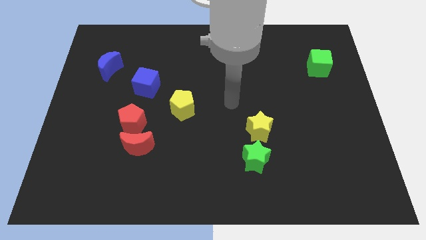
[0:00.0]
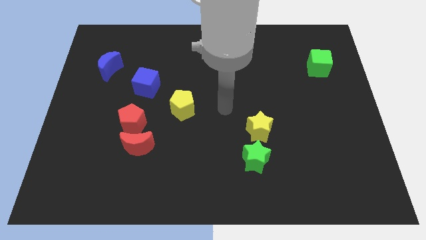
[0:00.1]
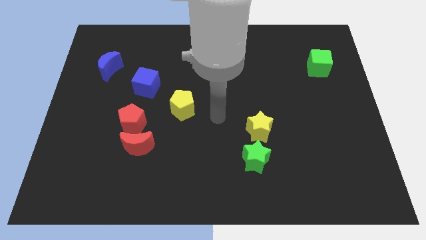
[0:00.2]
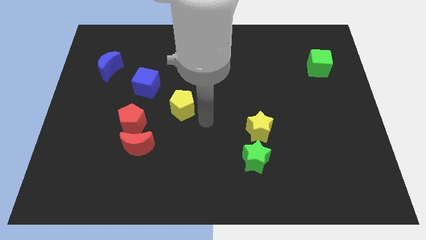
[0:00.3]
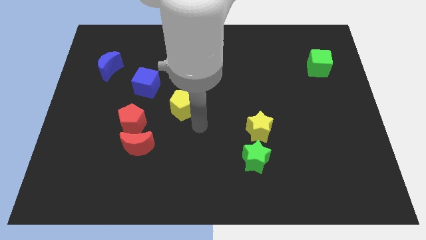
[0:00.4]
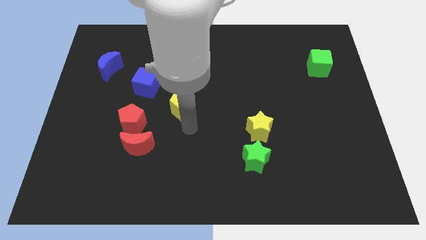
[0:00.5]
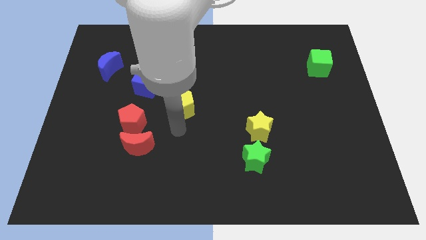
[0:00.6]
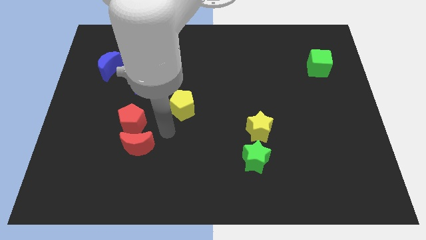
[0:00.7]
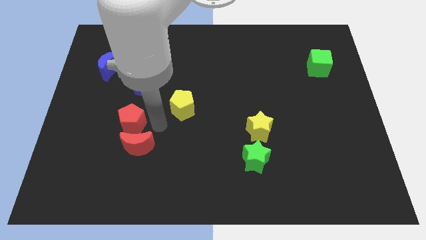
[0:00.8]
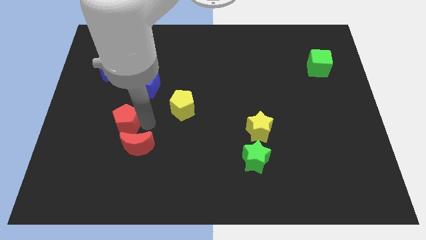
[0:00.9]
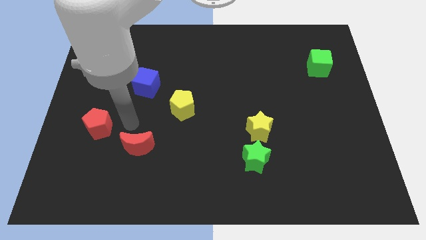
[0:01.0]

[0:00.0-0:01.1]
pull the red moon apart from the red pentagon

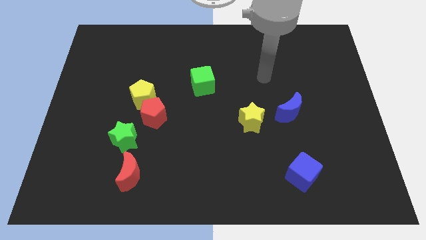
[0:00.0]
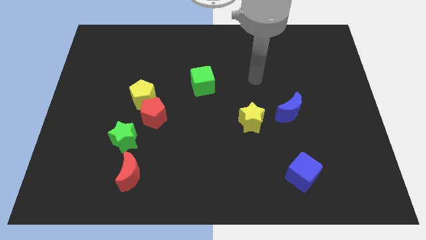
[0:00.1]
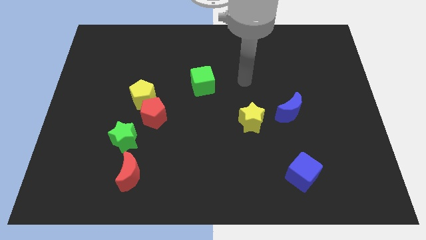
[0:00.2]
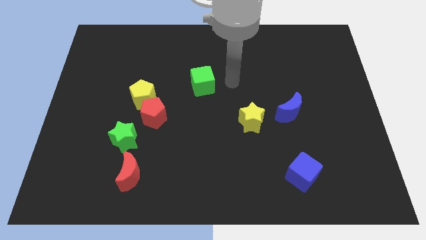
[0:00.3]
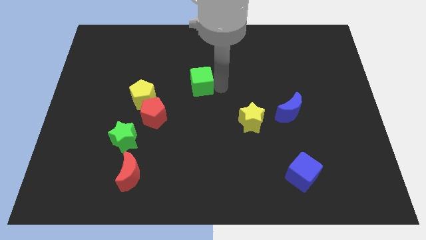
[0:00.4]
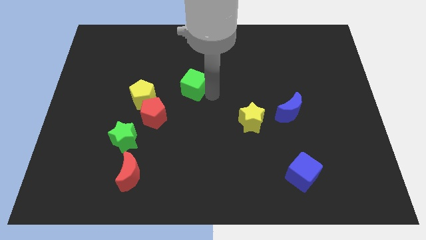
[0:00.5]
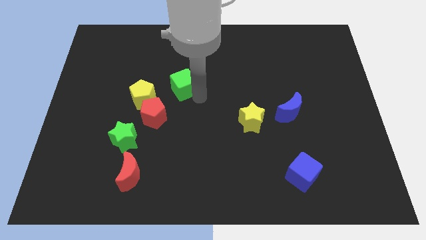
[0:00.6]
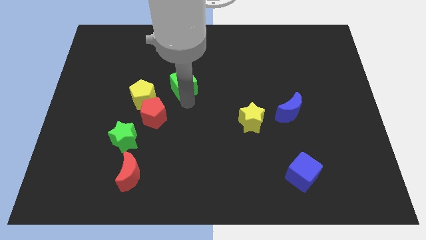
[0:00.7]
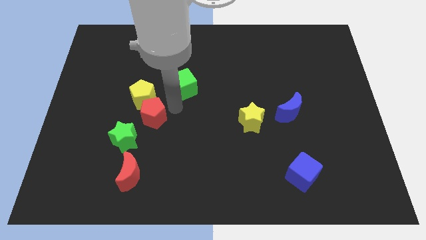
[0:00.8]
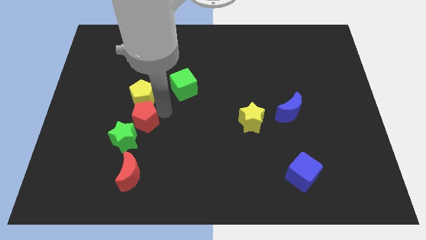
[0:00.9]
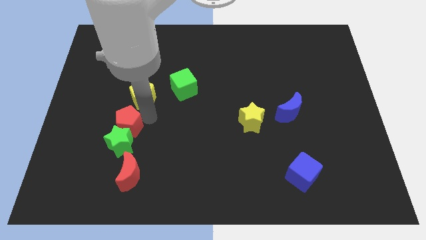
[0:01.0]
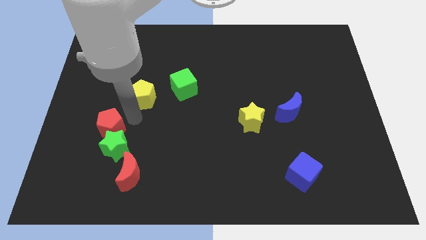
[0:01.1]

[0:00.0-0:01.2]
move the yellow pentagon away from the red pentagon

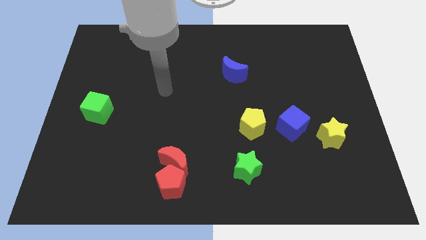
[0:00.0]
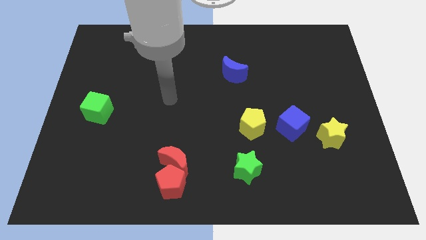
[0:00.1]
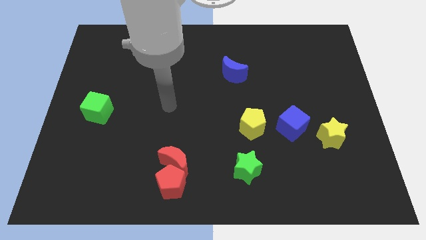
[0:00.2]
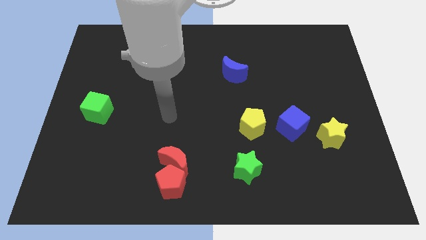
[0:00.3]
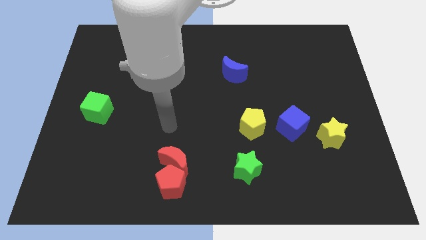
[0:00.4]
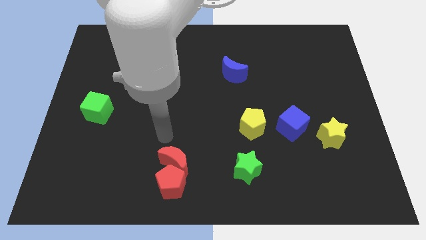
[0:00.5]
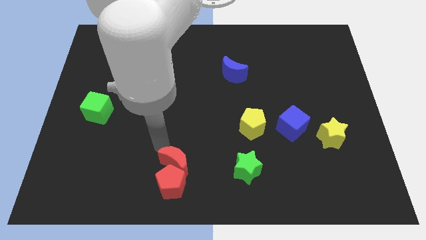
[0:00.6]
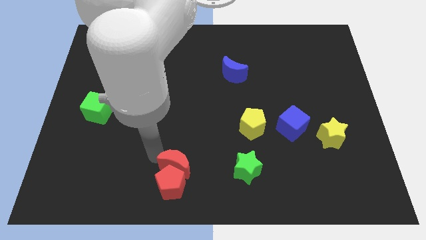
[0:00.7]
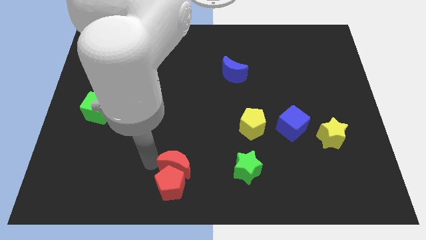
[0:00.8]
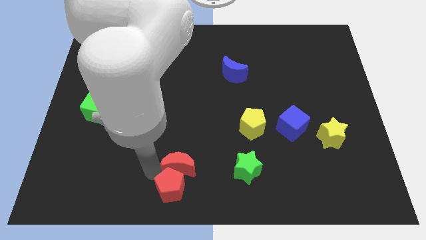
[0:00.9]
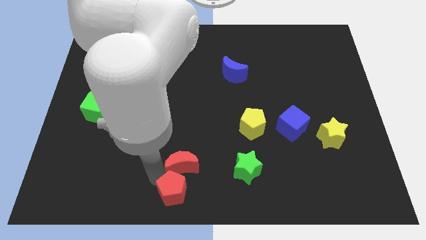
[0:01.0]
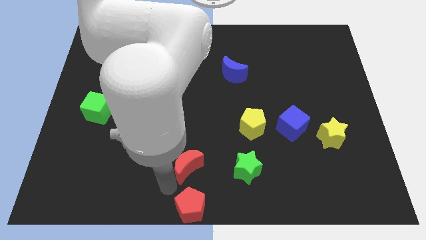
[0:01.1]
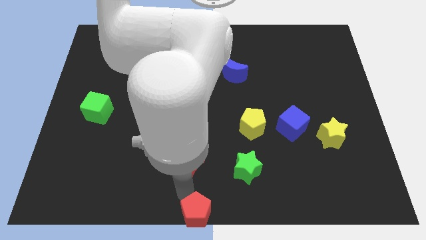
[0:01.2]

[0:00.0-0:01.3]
separate the red moon from the red pentagon

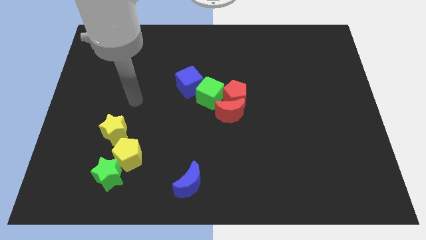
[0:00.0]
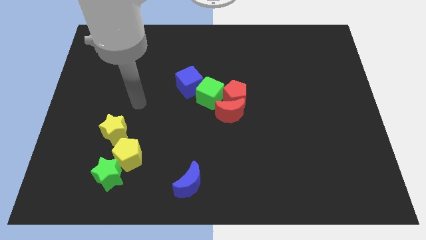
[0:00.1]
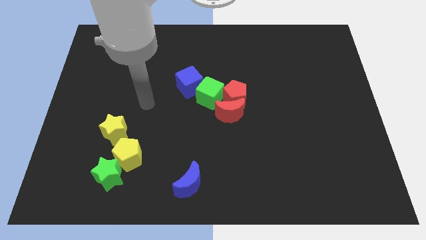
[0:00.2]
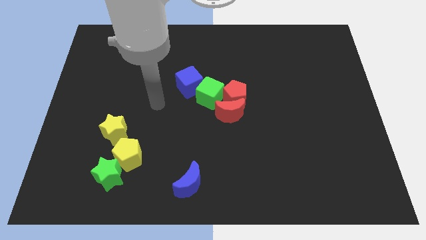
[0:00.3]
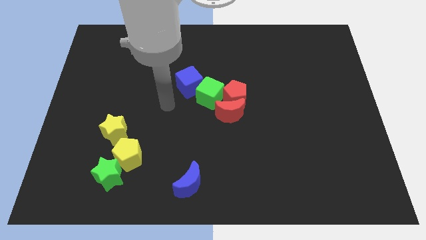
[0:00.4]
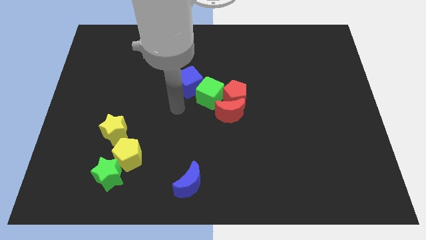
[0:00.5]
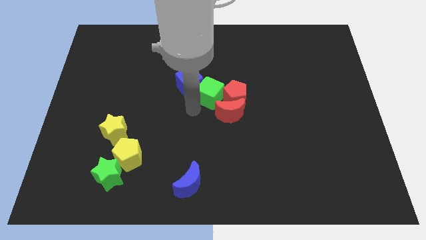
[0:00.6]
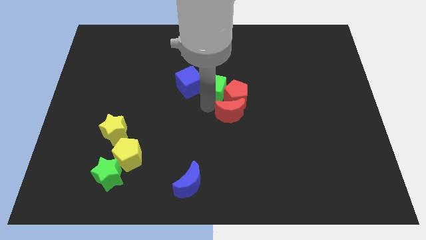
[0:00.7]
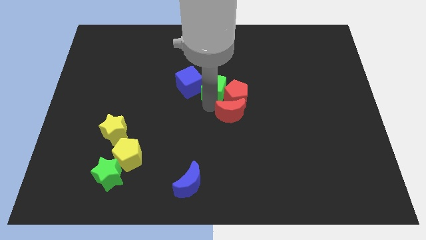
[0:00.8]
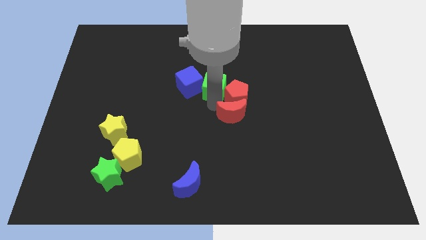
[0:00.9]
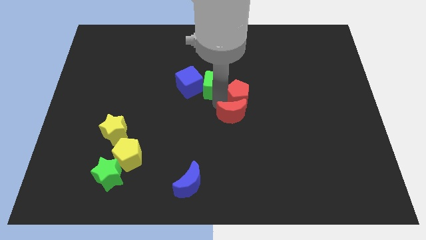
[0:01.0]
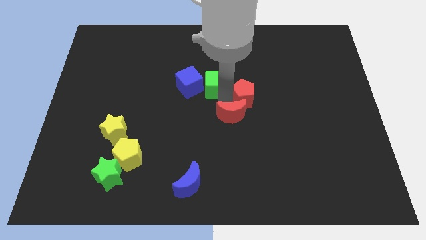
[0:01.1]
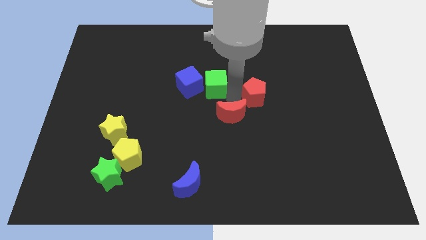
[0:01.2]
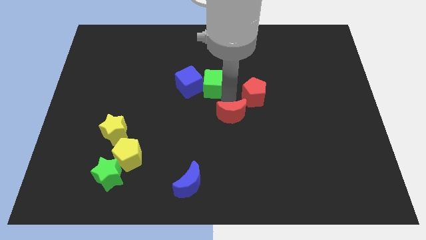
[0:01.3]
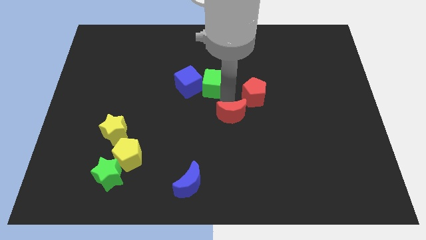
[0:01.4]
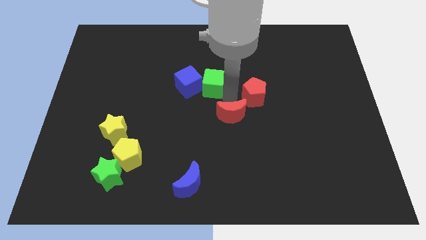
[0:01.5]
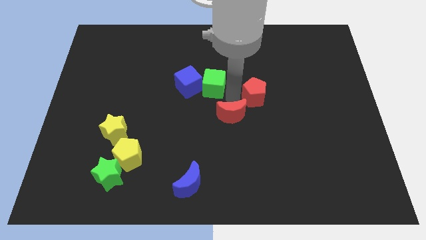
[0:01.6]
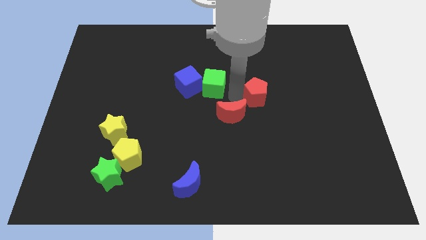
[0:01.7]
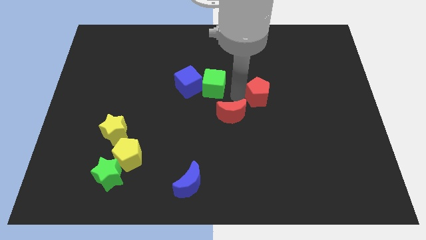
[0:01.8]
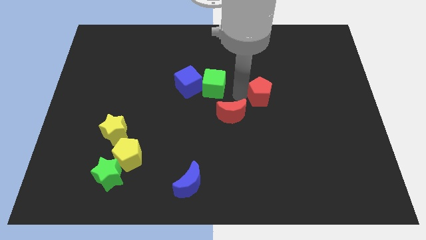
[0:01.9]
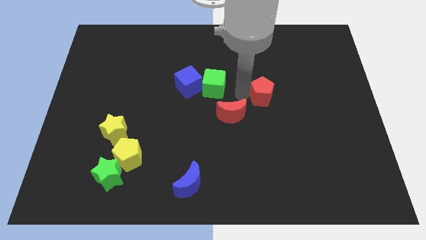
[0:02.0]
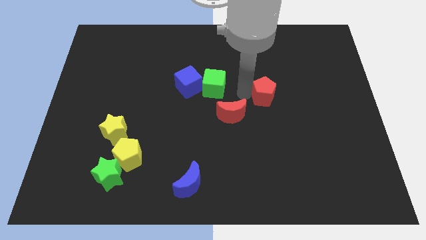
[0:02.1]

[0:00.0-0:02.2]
move the red pentagon away from the red moon and green cube

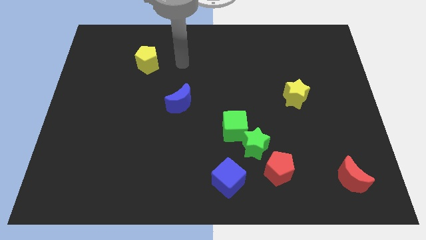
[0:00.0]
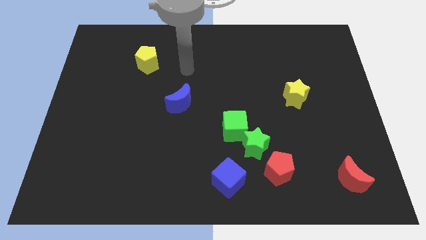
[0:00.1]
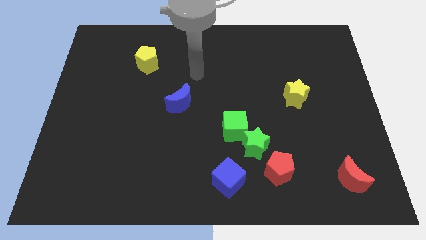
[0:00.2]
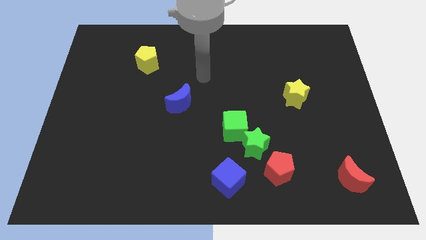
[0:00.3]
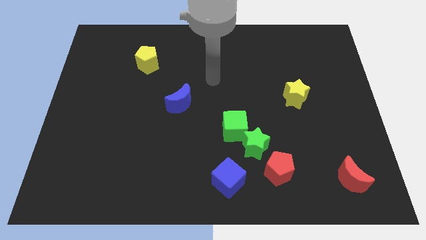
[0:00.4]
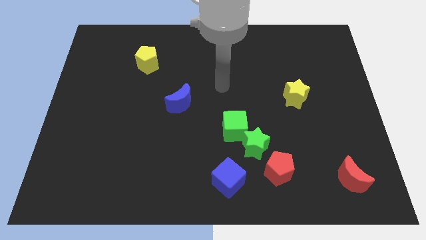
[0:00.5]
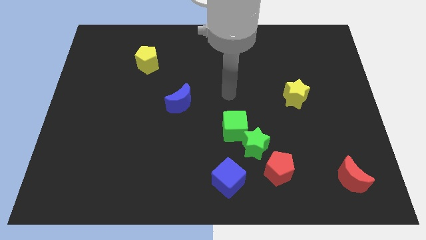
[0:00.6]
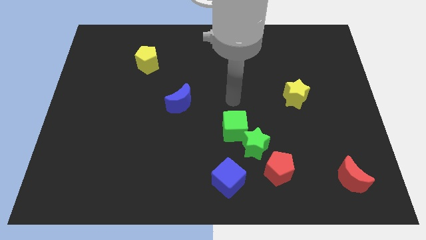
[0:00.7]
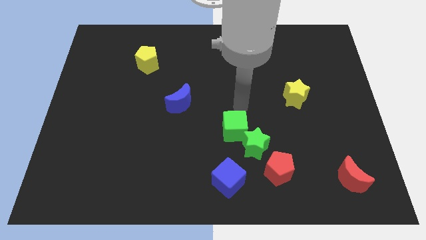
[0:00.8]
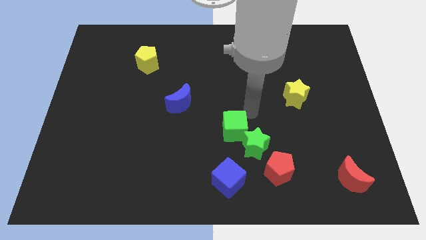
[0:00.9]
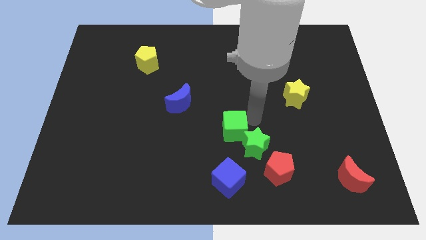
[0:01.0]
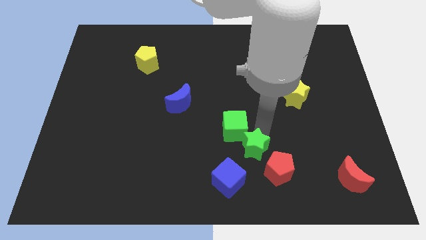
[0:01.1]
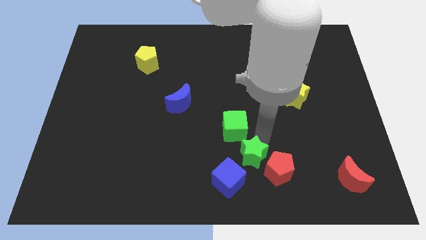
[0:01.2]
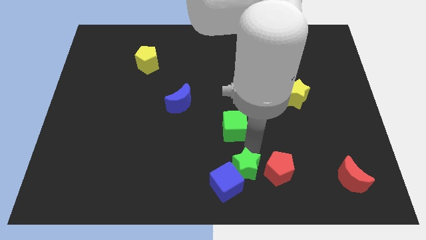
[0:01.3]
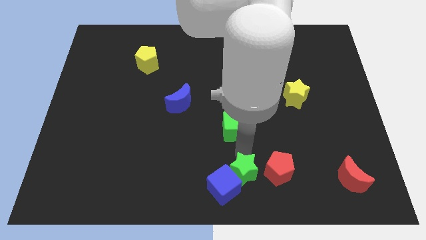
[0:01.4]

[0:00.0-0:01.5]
separate the green cube from the green star

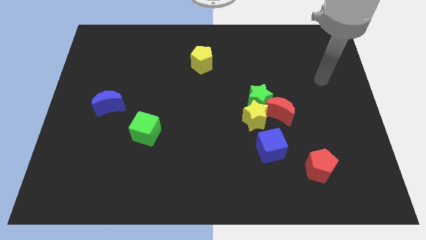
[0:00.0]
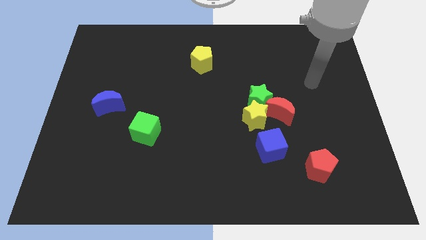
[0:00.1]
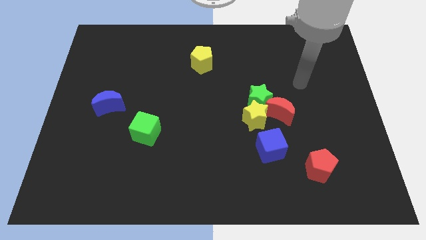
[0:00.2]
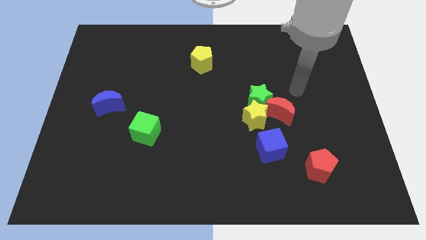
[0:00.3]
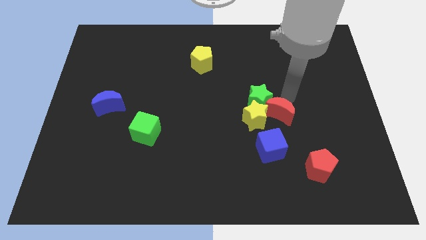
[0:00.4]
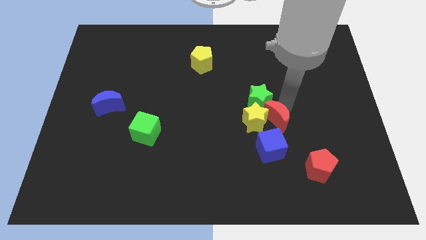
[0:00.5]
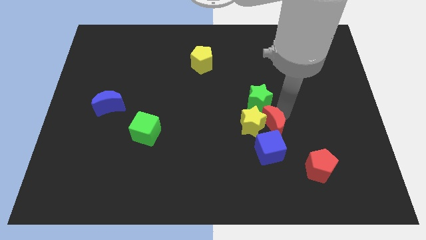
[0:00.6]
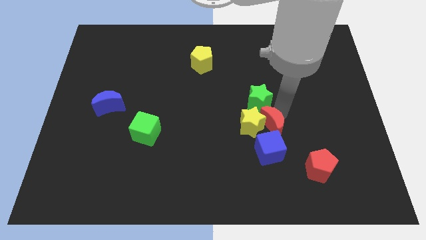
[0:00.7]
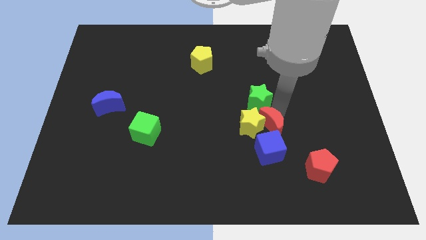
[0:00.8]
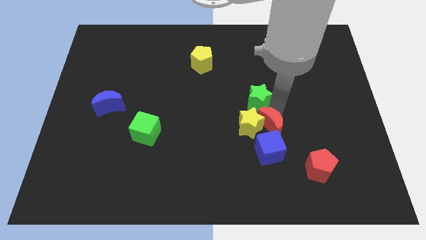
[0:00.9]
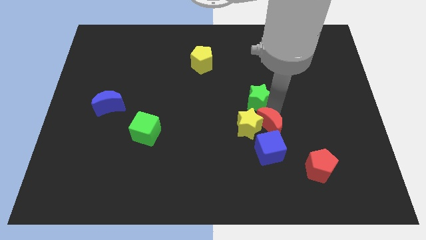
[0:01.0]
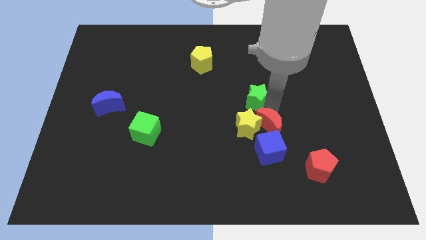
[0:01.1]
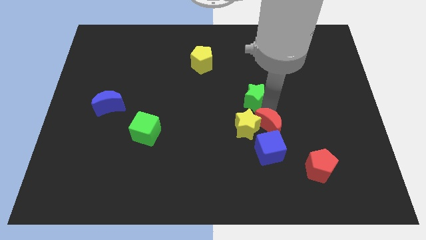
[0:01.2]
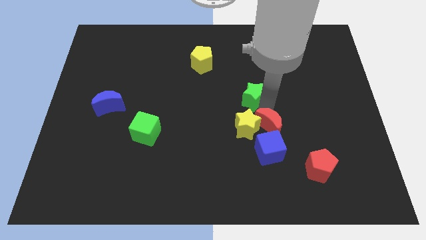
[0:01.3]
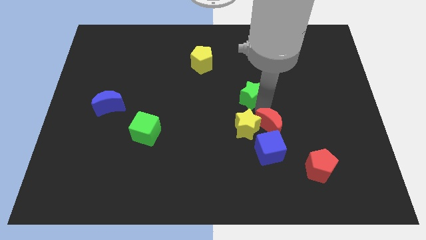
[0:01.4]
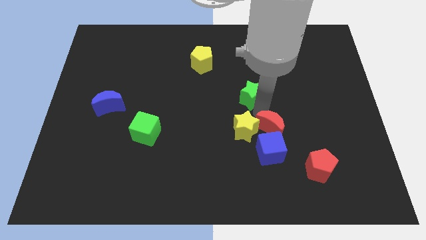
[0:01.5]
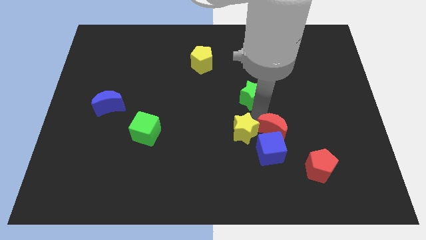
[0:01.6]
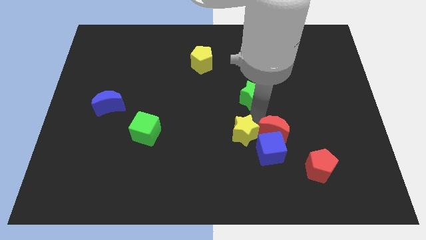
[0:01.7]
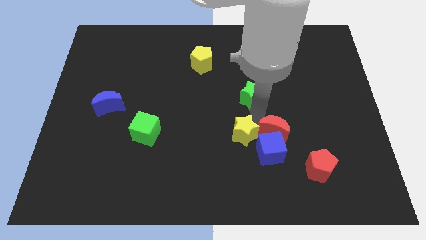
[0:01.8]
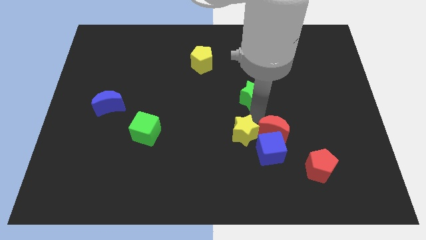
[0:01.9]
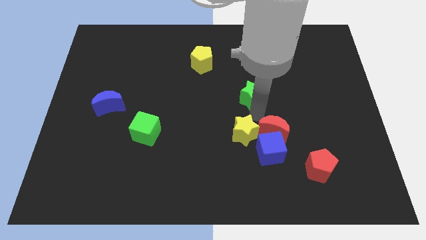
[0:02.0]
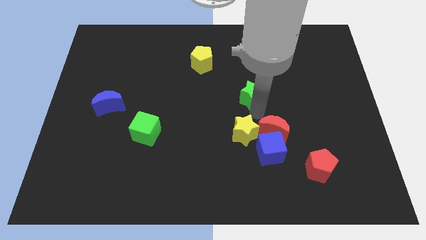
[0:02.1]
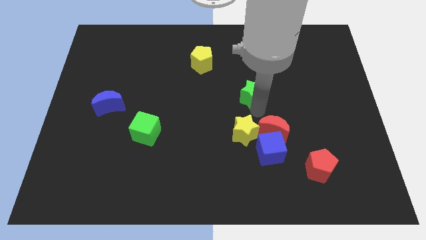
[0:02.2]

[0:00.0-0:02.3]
move the green star away from the yellow star and red moon
